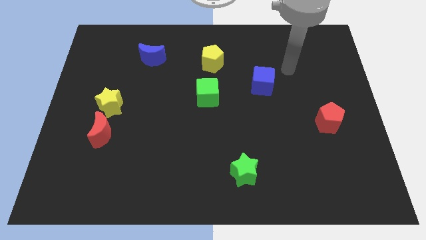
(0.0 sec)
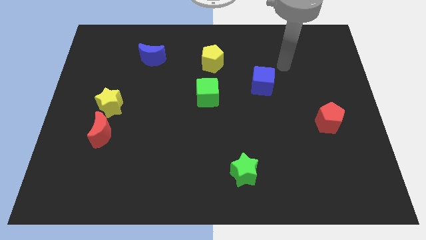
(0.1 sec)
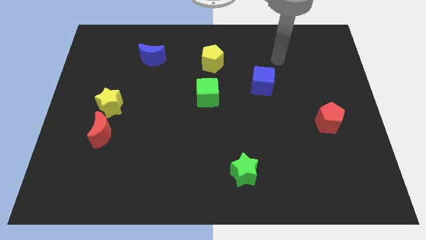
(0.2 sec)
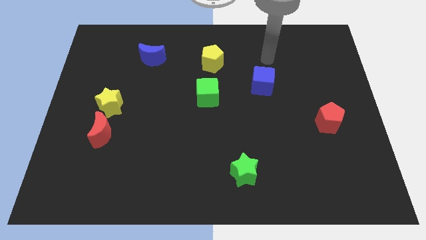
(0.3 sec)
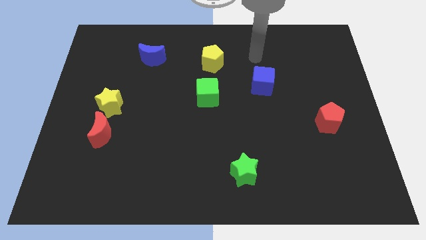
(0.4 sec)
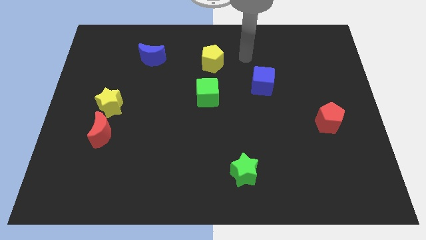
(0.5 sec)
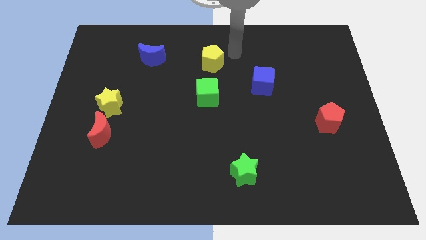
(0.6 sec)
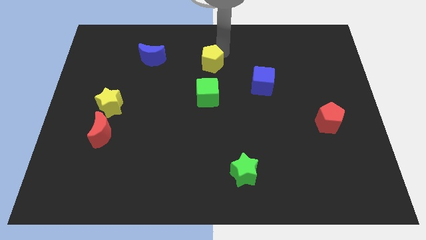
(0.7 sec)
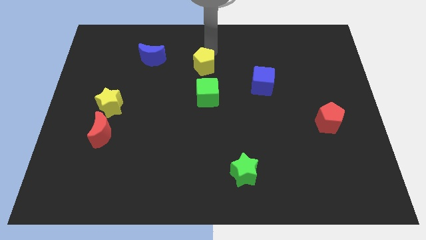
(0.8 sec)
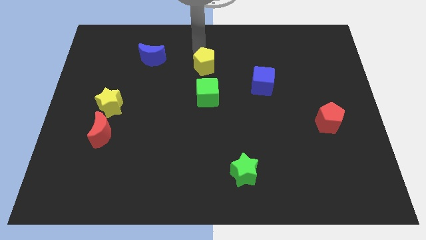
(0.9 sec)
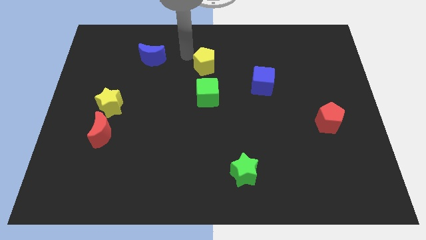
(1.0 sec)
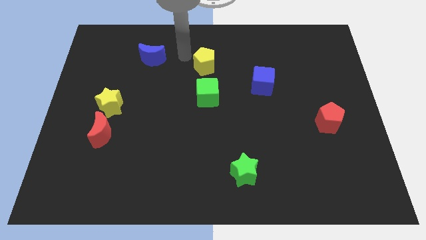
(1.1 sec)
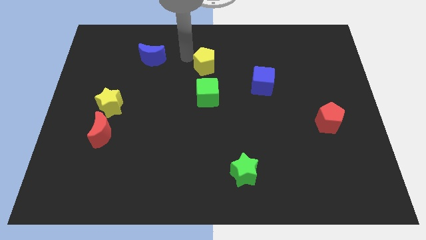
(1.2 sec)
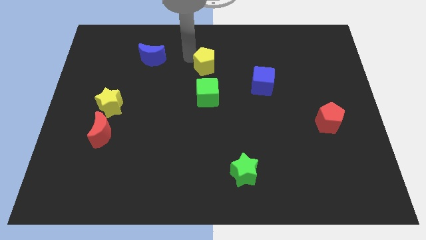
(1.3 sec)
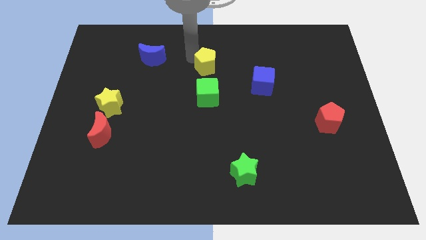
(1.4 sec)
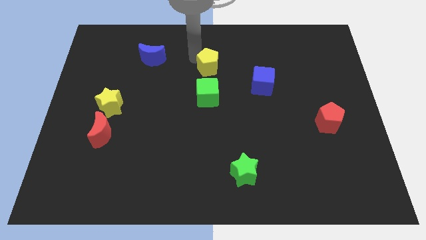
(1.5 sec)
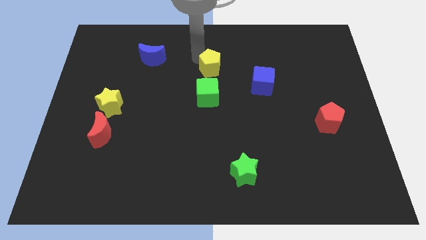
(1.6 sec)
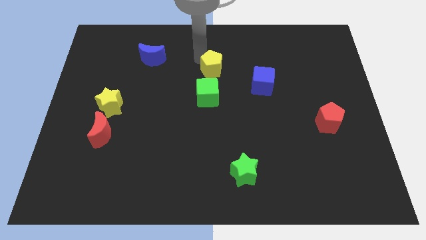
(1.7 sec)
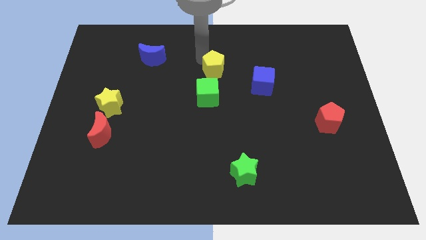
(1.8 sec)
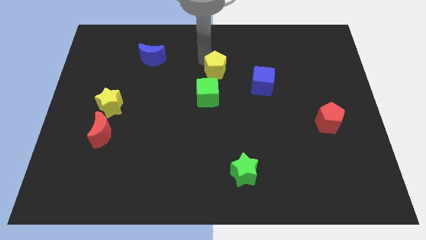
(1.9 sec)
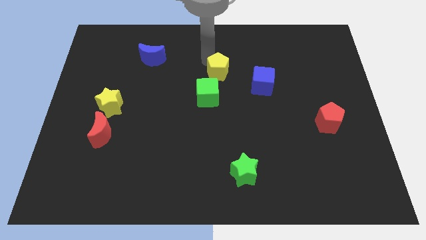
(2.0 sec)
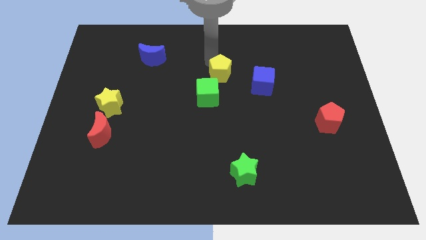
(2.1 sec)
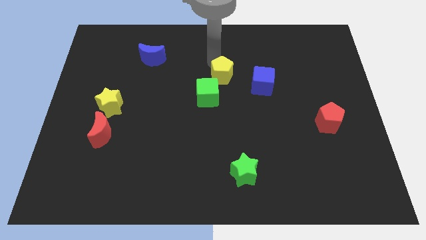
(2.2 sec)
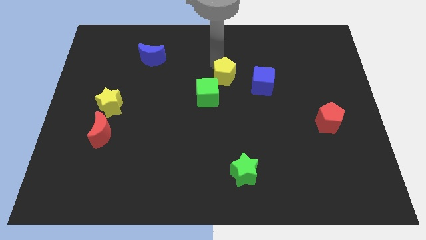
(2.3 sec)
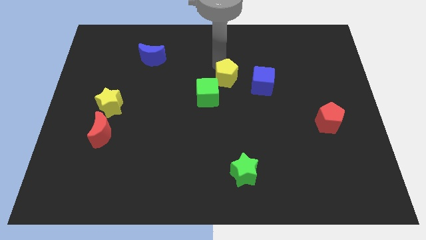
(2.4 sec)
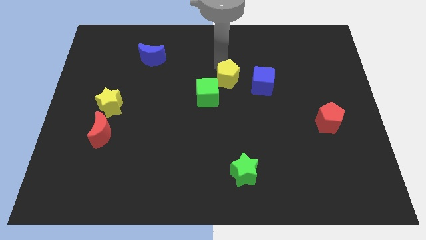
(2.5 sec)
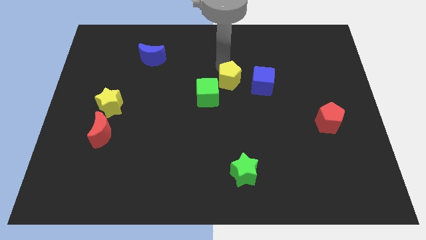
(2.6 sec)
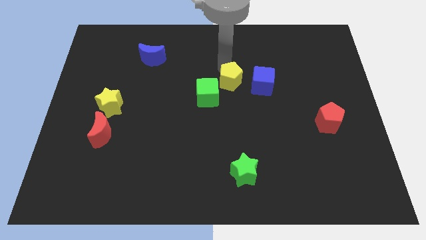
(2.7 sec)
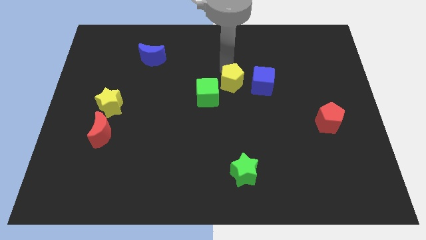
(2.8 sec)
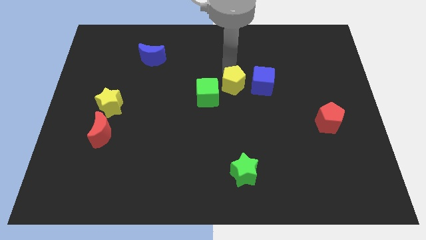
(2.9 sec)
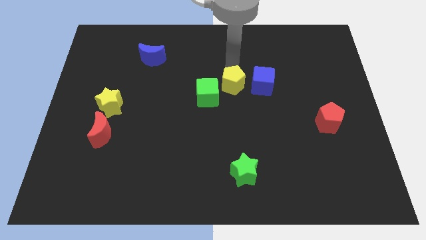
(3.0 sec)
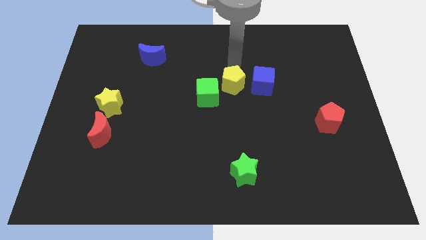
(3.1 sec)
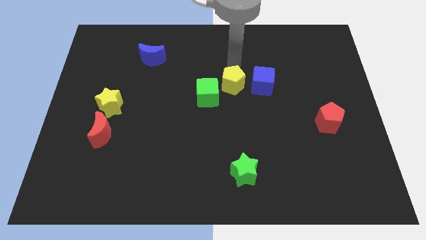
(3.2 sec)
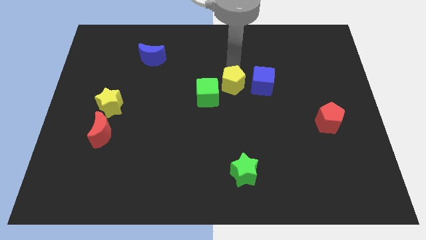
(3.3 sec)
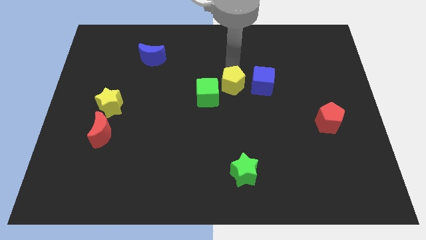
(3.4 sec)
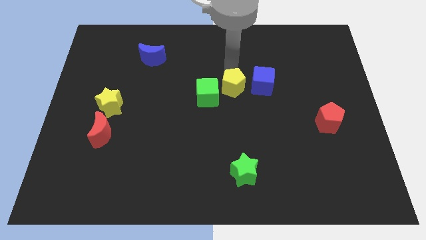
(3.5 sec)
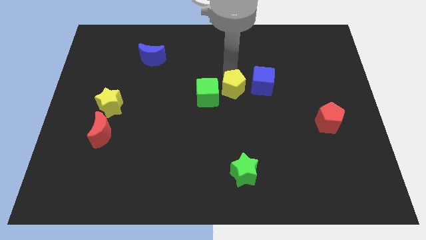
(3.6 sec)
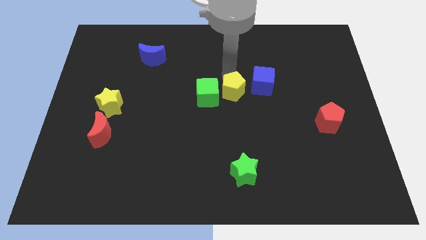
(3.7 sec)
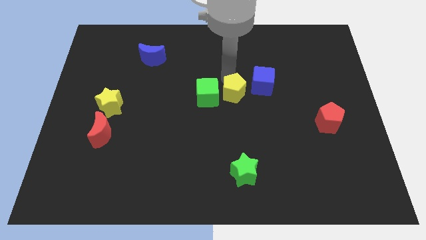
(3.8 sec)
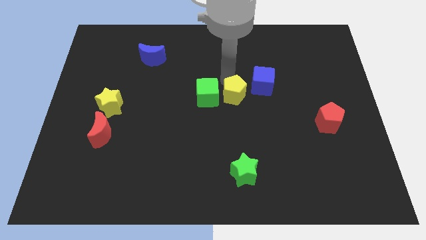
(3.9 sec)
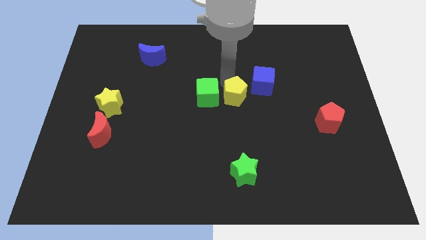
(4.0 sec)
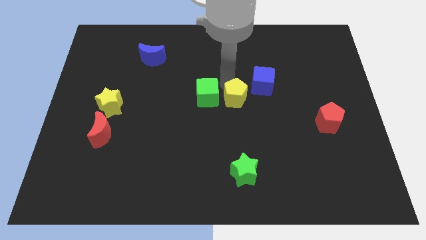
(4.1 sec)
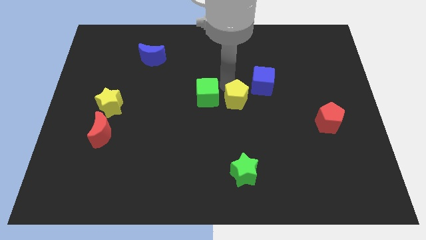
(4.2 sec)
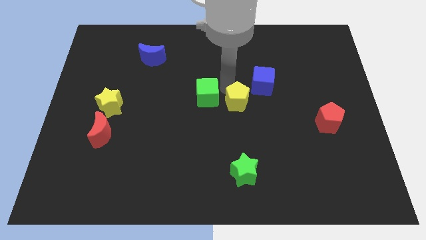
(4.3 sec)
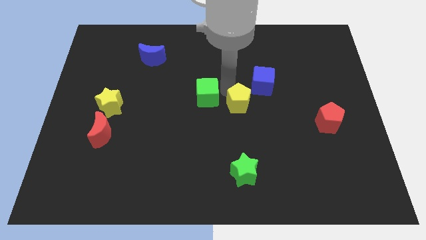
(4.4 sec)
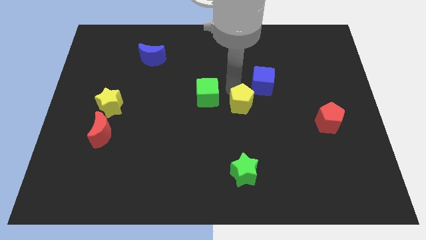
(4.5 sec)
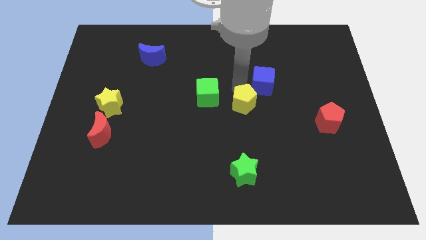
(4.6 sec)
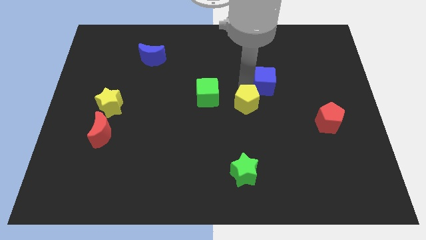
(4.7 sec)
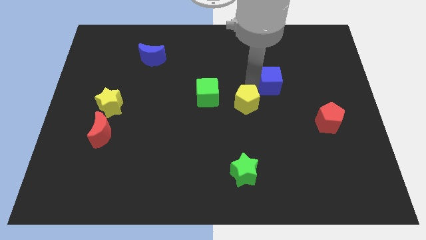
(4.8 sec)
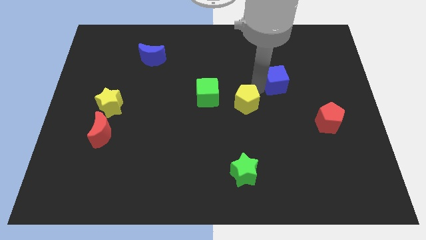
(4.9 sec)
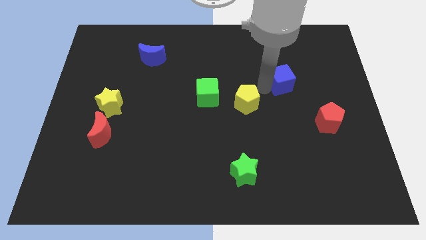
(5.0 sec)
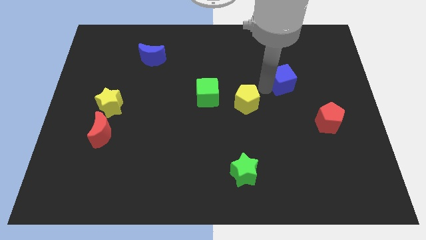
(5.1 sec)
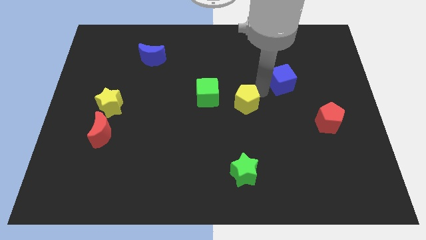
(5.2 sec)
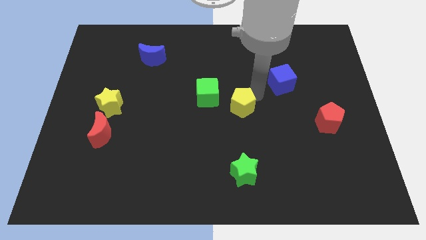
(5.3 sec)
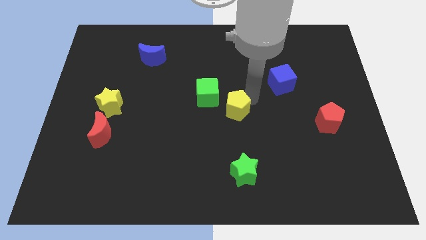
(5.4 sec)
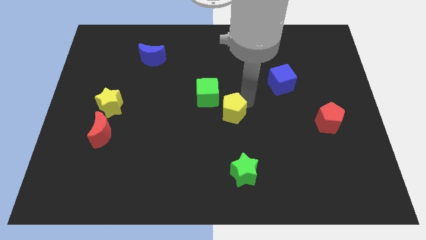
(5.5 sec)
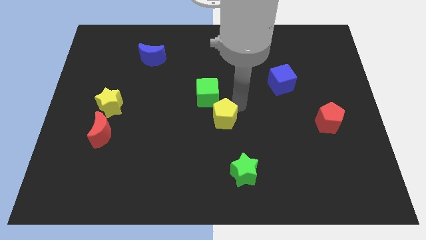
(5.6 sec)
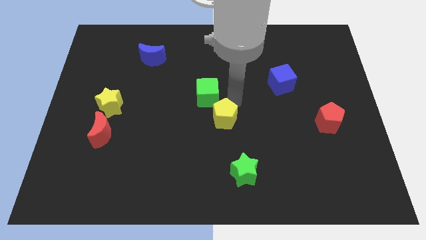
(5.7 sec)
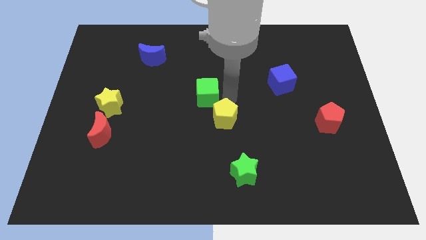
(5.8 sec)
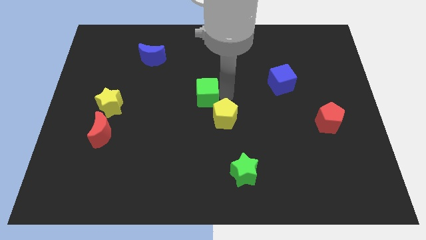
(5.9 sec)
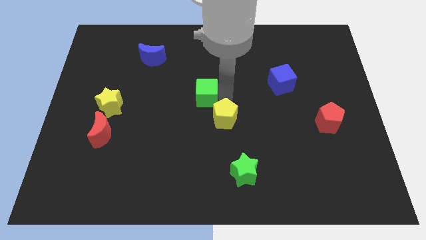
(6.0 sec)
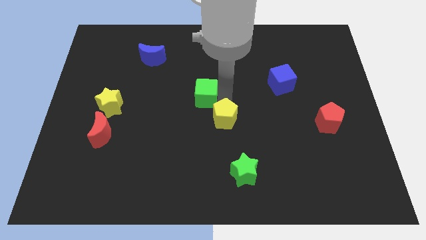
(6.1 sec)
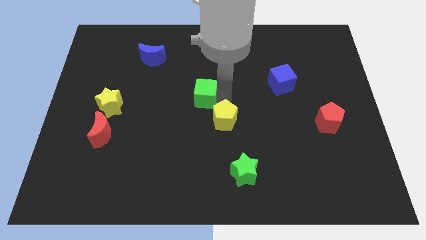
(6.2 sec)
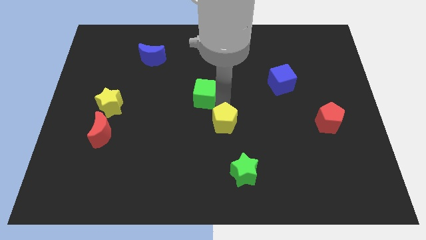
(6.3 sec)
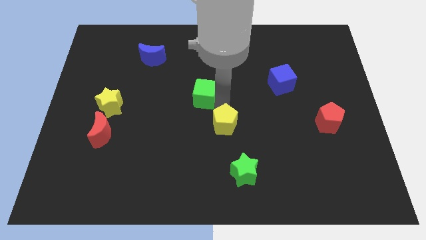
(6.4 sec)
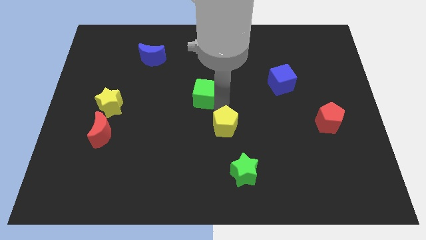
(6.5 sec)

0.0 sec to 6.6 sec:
slide the yellow pentagon downwards

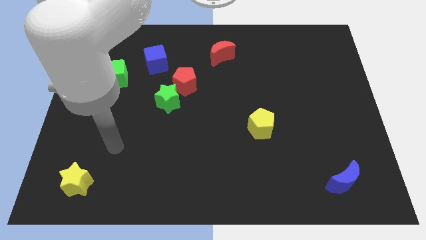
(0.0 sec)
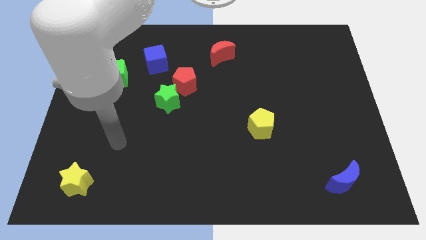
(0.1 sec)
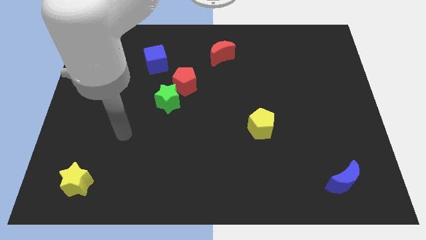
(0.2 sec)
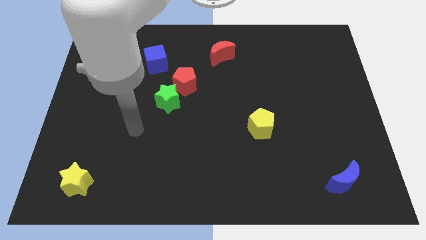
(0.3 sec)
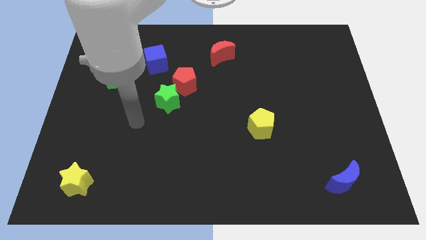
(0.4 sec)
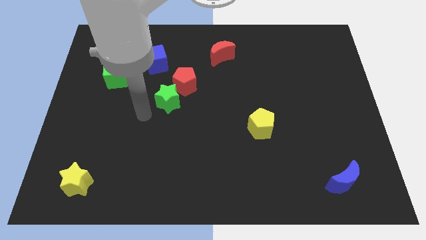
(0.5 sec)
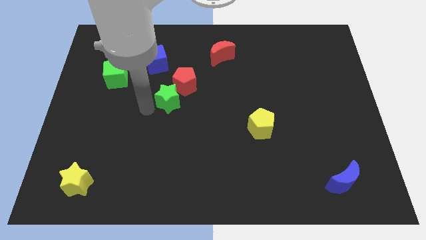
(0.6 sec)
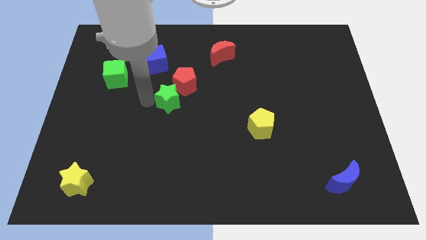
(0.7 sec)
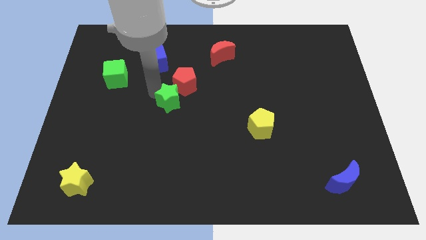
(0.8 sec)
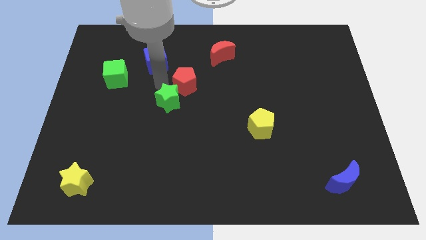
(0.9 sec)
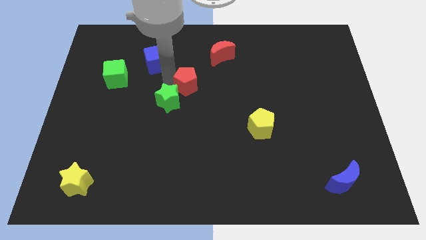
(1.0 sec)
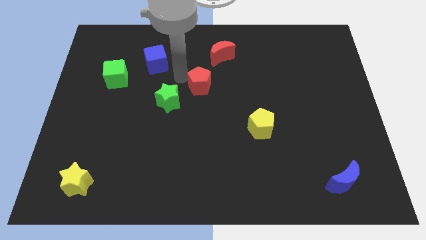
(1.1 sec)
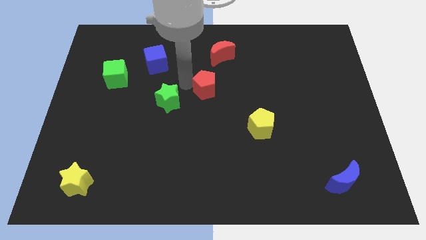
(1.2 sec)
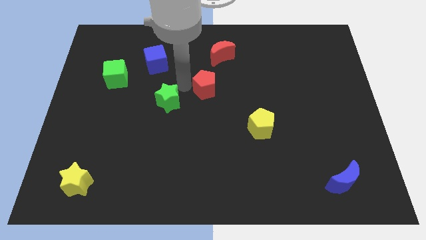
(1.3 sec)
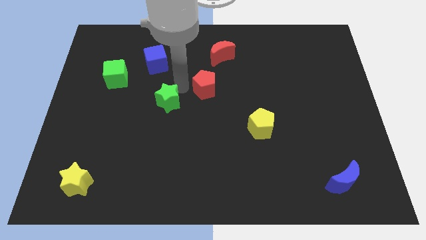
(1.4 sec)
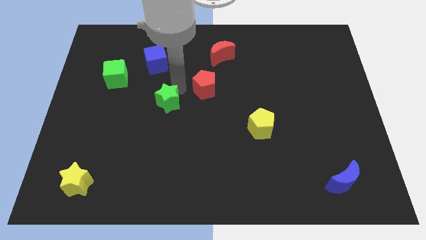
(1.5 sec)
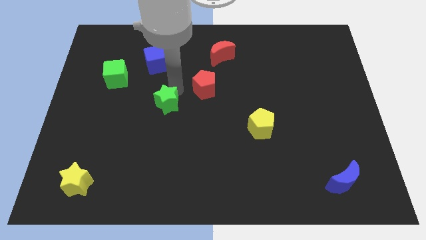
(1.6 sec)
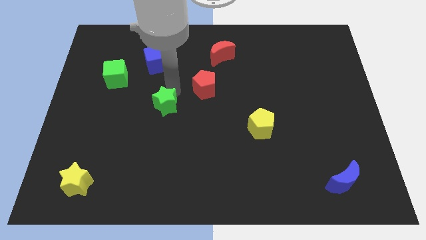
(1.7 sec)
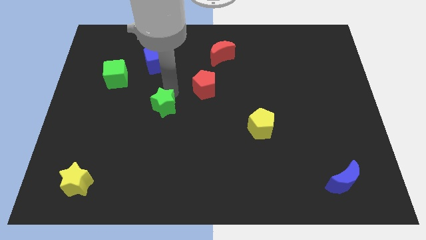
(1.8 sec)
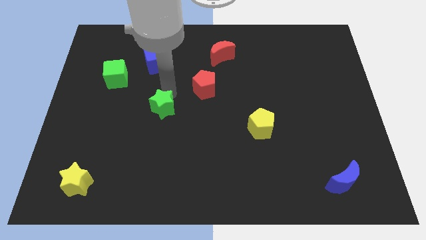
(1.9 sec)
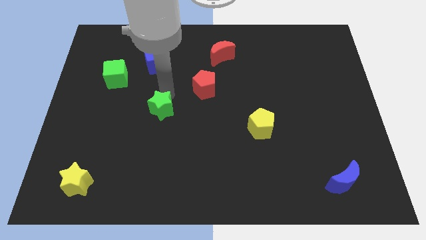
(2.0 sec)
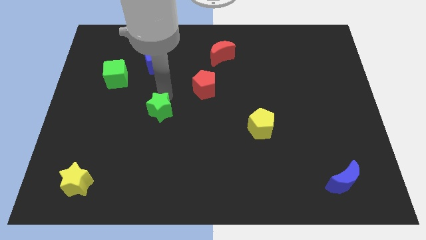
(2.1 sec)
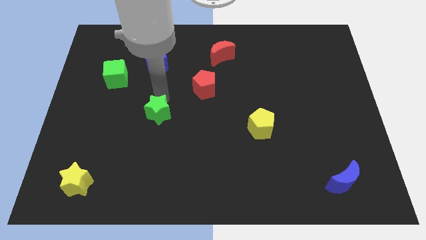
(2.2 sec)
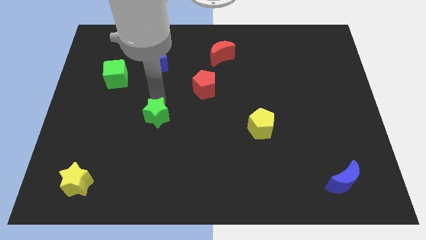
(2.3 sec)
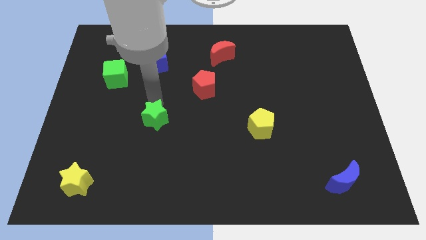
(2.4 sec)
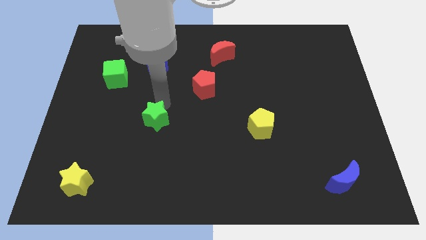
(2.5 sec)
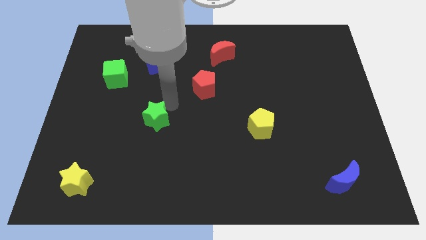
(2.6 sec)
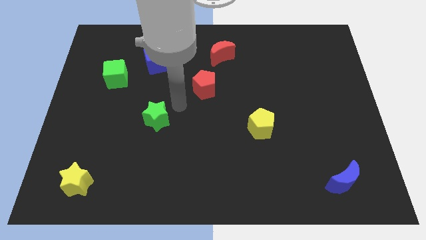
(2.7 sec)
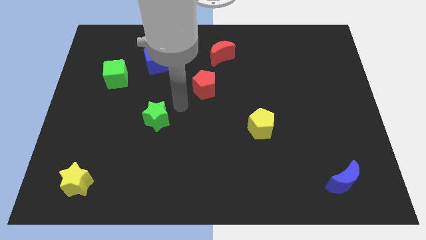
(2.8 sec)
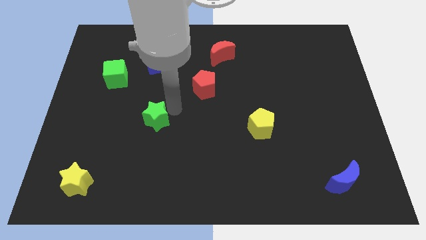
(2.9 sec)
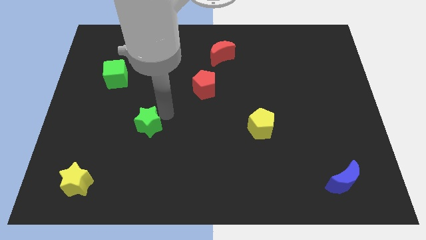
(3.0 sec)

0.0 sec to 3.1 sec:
slightly move the green star diagonally downwards and to the left
